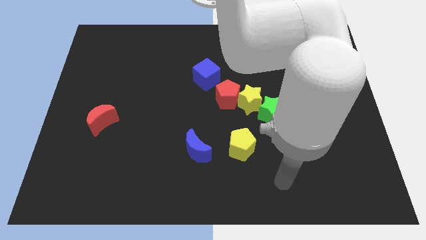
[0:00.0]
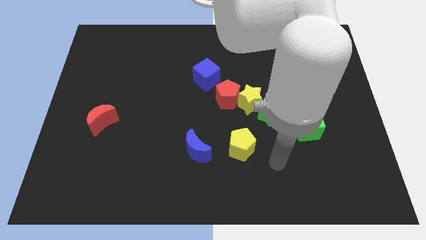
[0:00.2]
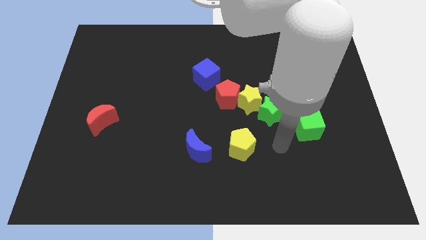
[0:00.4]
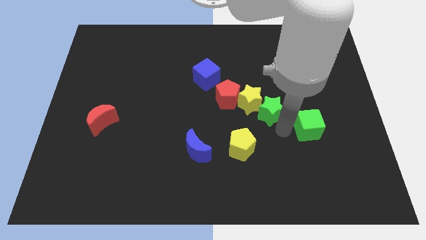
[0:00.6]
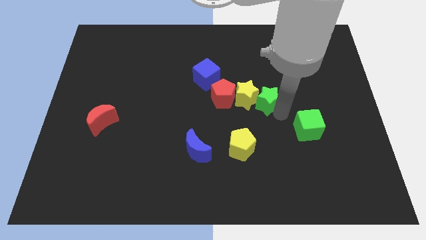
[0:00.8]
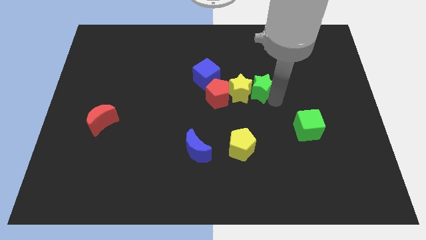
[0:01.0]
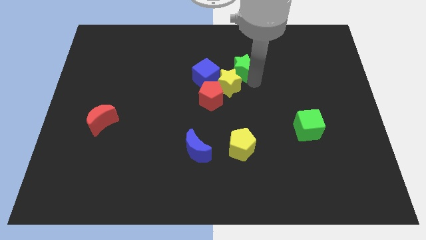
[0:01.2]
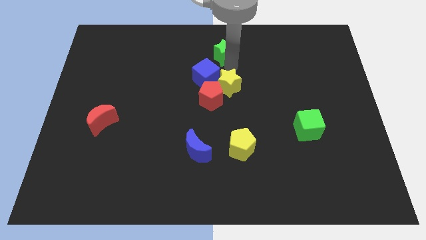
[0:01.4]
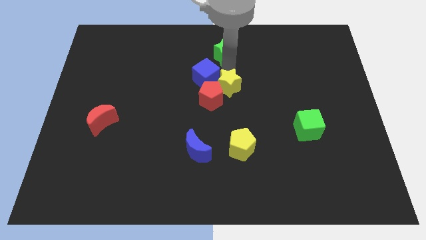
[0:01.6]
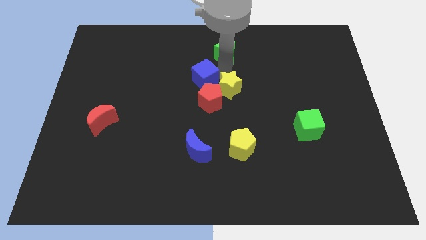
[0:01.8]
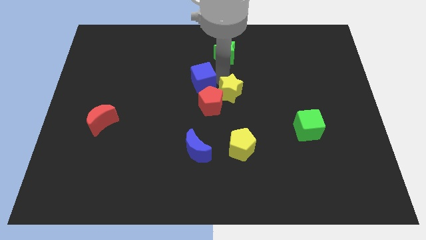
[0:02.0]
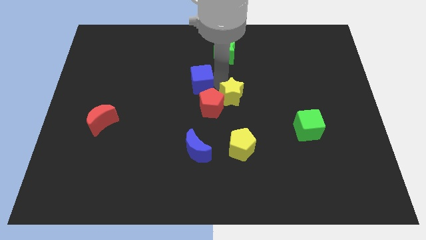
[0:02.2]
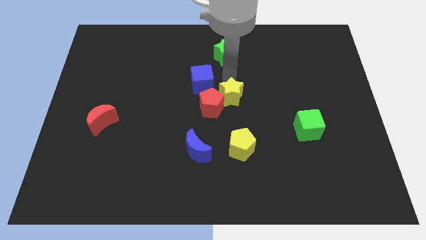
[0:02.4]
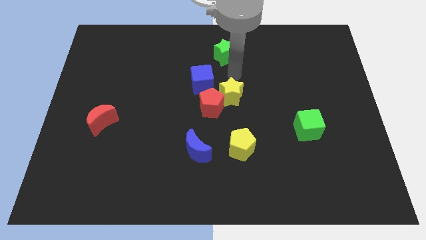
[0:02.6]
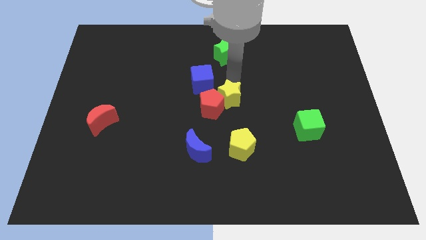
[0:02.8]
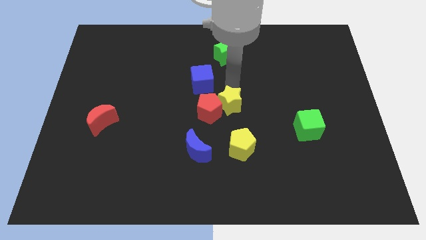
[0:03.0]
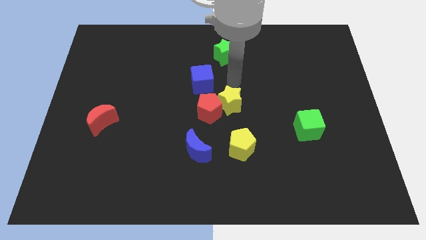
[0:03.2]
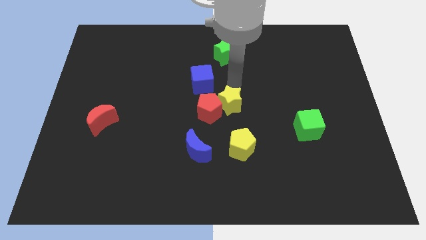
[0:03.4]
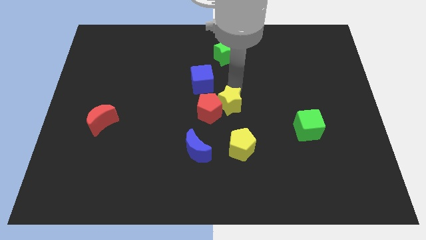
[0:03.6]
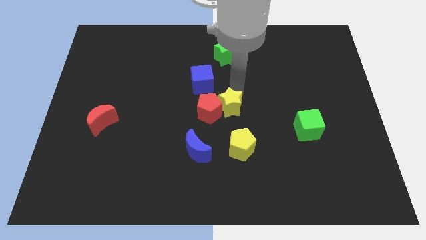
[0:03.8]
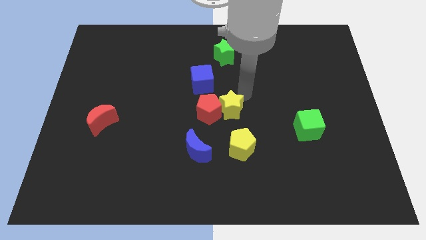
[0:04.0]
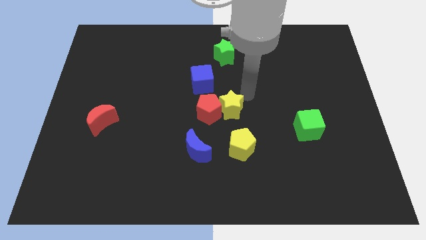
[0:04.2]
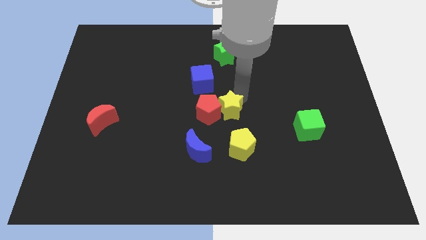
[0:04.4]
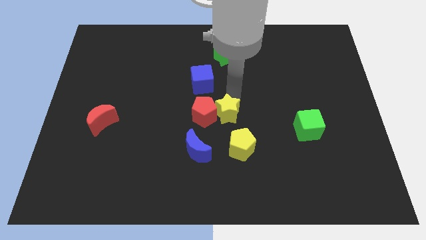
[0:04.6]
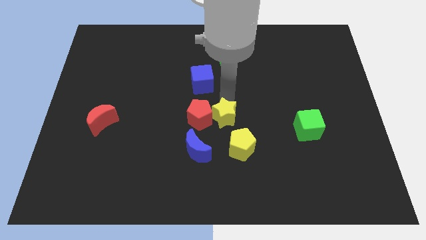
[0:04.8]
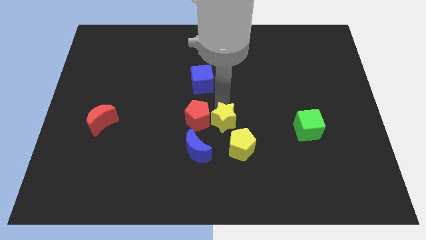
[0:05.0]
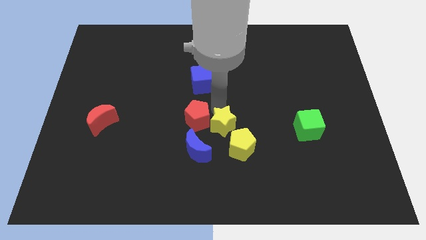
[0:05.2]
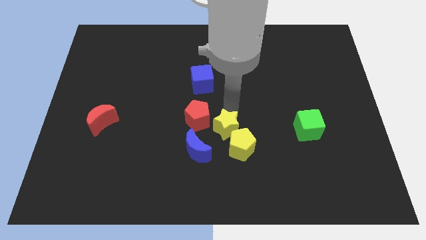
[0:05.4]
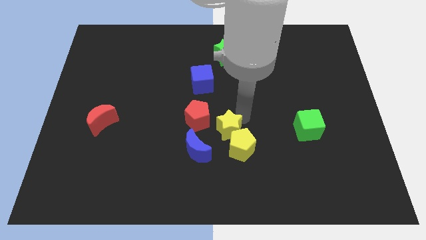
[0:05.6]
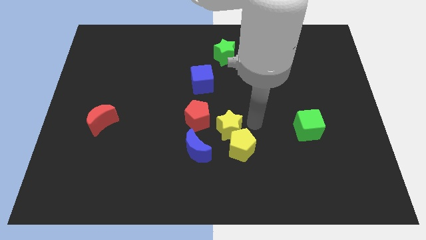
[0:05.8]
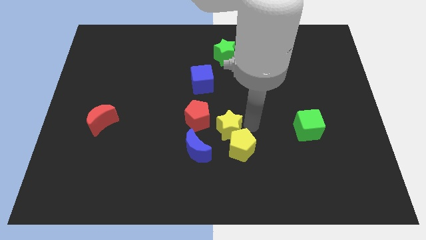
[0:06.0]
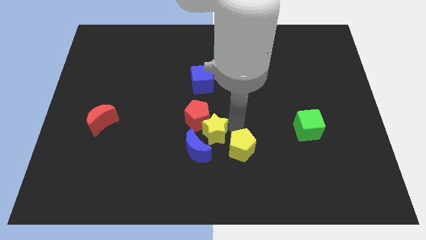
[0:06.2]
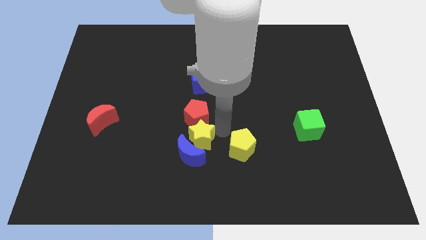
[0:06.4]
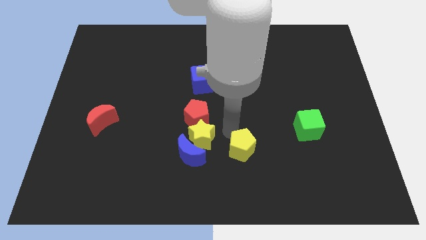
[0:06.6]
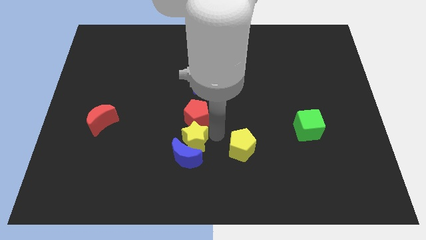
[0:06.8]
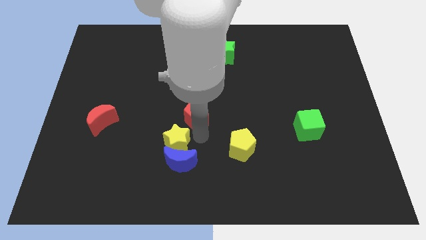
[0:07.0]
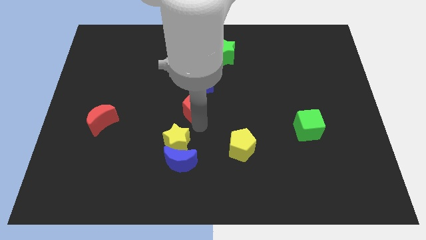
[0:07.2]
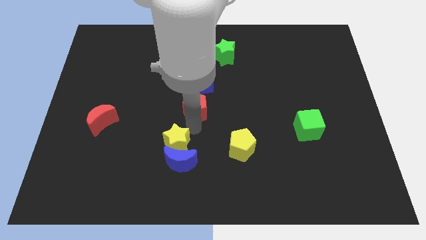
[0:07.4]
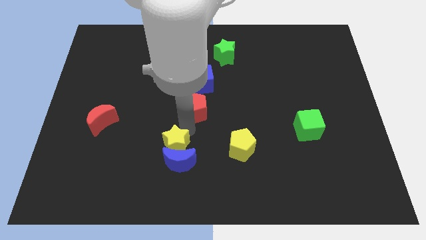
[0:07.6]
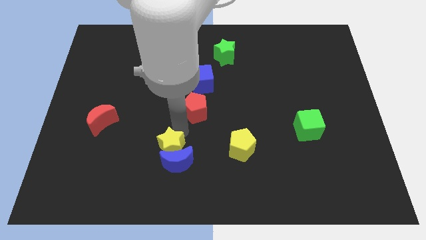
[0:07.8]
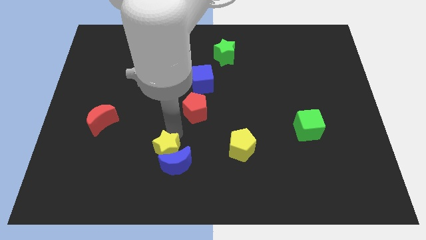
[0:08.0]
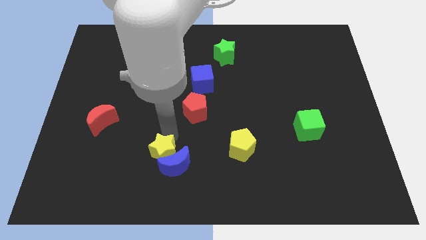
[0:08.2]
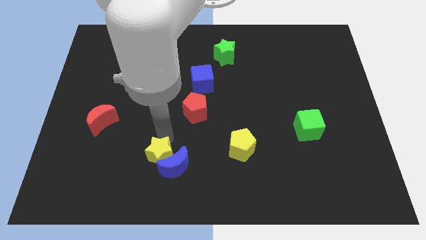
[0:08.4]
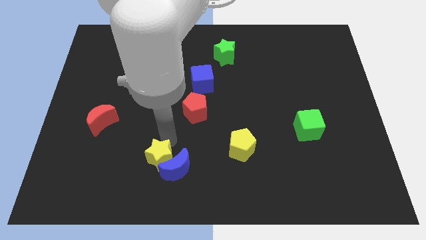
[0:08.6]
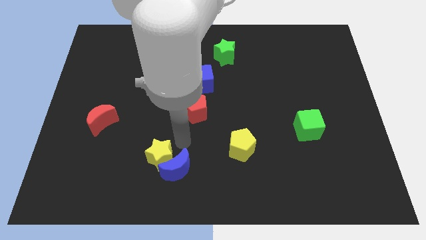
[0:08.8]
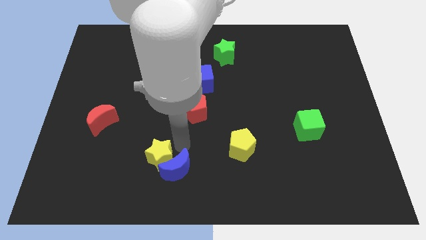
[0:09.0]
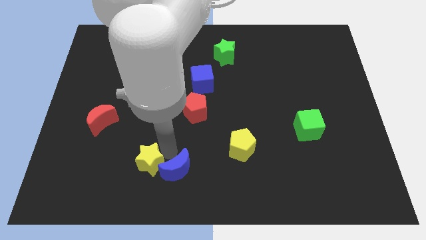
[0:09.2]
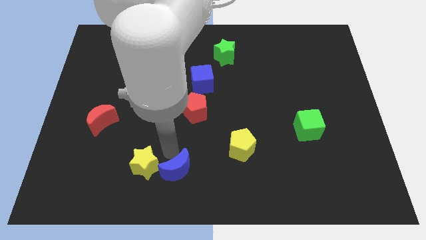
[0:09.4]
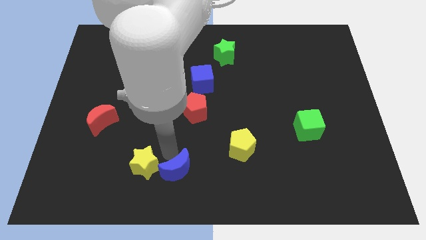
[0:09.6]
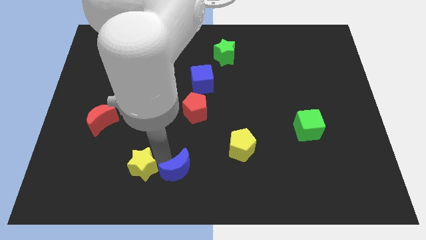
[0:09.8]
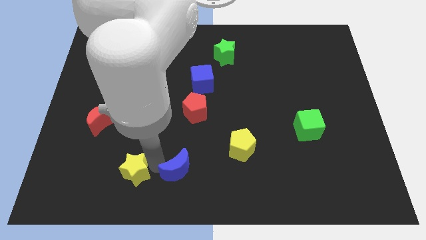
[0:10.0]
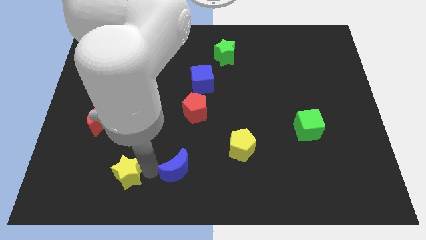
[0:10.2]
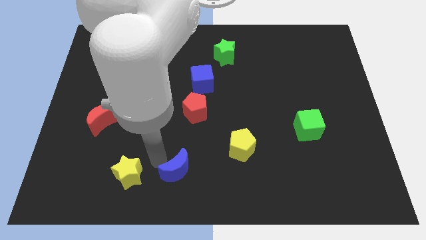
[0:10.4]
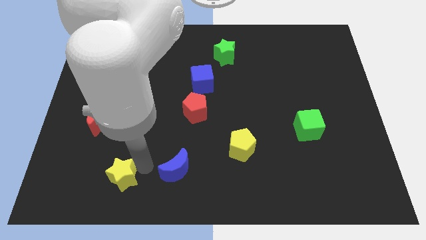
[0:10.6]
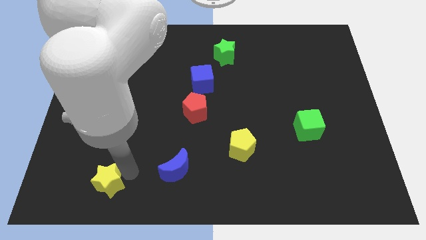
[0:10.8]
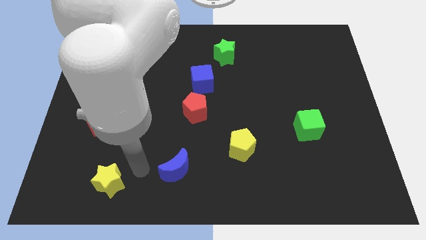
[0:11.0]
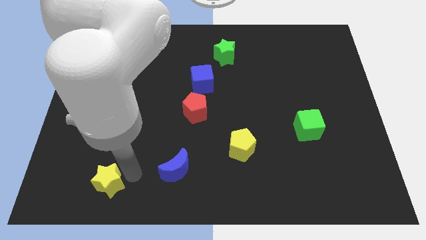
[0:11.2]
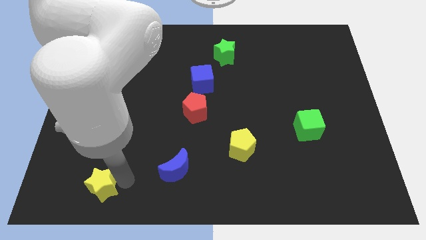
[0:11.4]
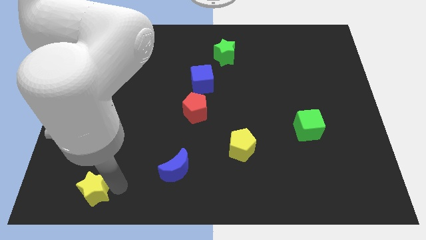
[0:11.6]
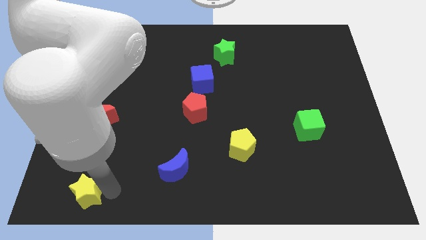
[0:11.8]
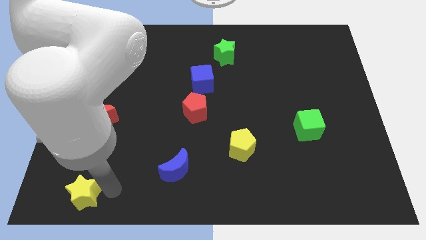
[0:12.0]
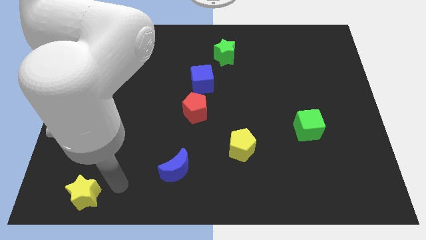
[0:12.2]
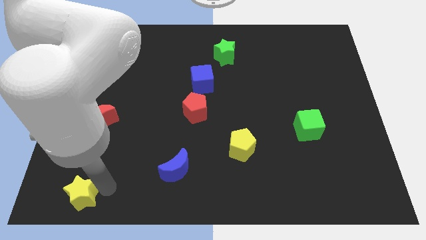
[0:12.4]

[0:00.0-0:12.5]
move the yellow star to the lower left corner
